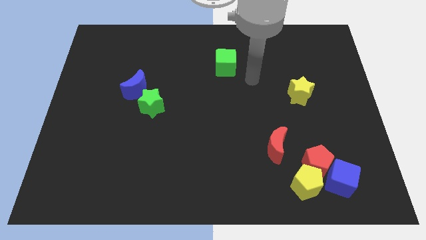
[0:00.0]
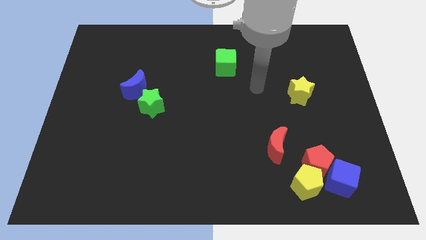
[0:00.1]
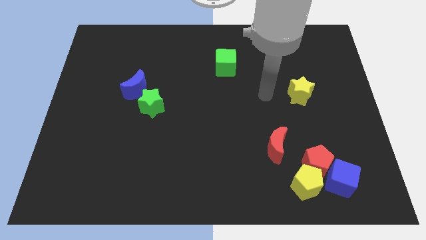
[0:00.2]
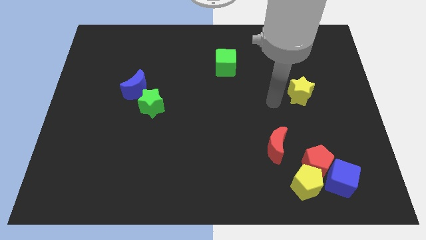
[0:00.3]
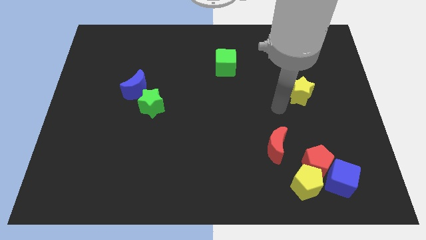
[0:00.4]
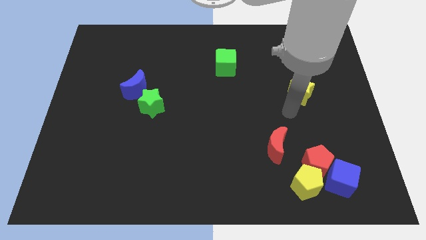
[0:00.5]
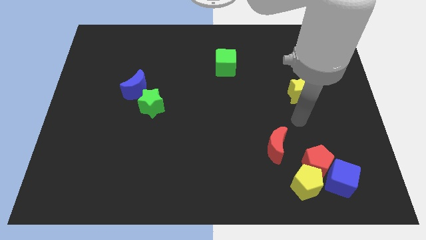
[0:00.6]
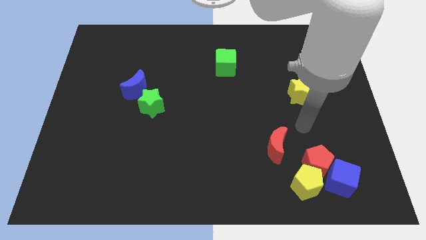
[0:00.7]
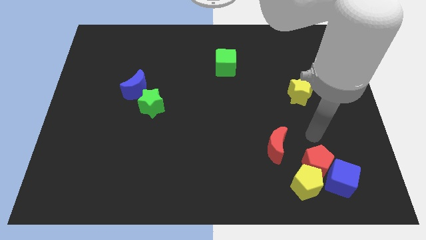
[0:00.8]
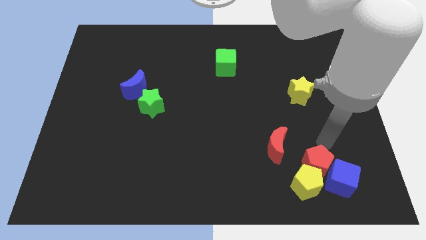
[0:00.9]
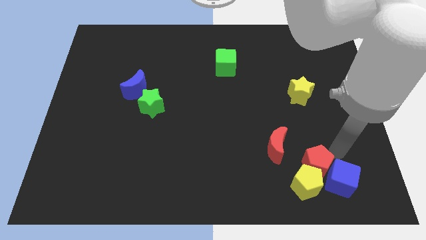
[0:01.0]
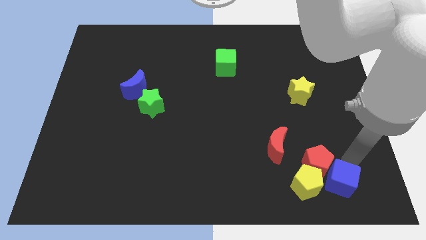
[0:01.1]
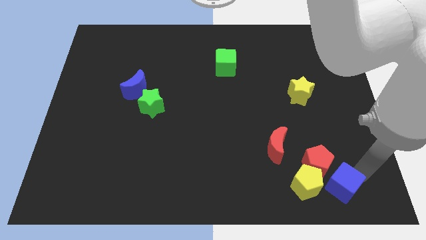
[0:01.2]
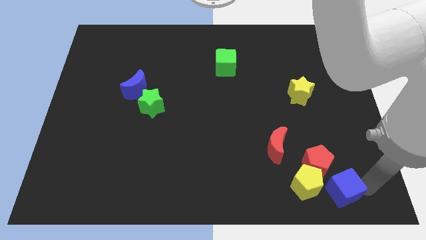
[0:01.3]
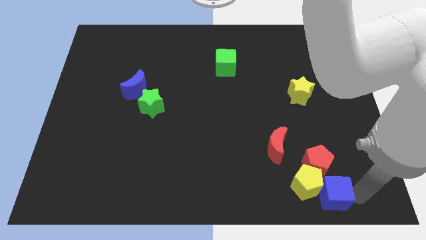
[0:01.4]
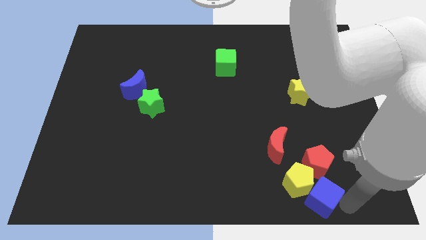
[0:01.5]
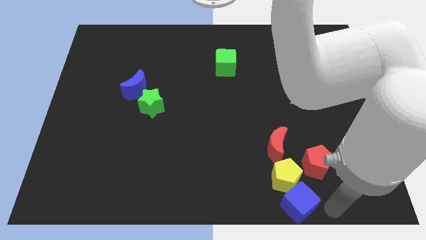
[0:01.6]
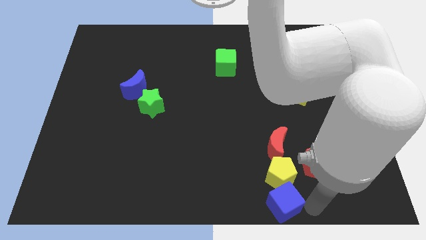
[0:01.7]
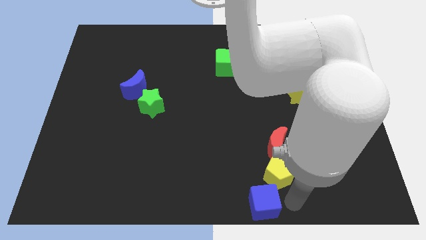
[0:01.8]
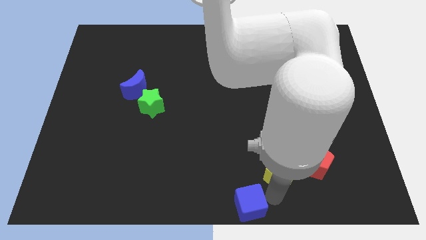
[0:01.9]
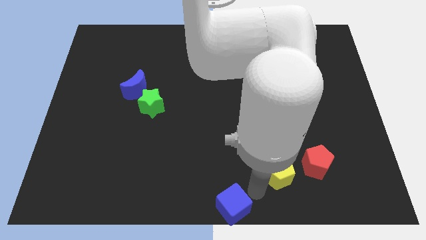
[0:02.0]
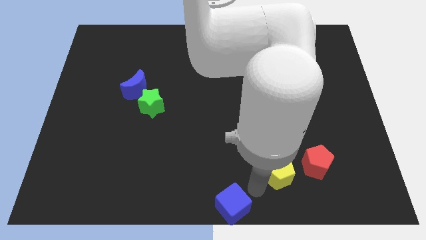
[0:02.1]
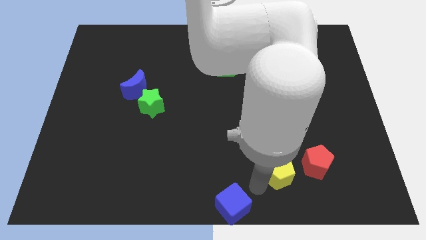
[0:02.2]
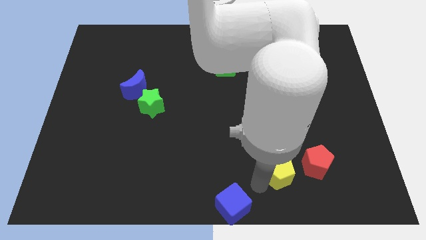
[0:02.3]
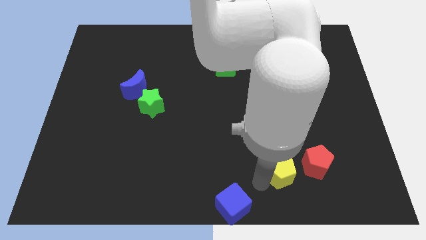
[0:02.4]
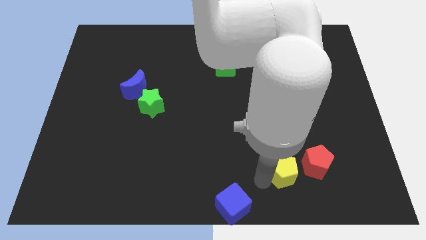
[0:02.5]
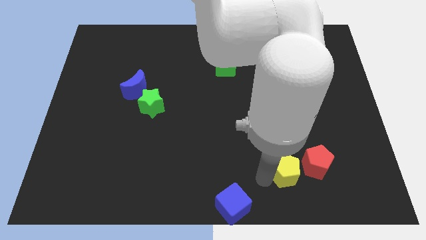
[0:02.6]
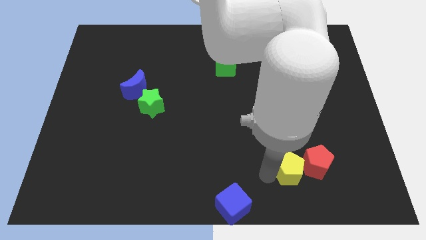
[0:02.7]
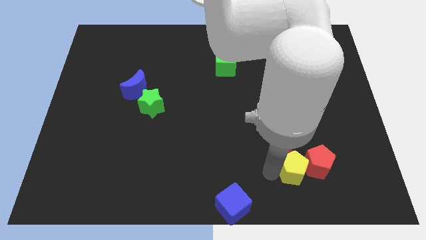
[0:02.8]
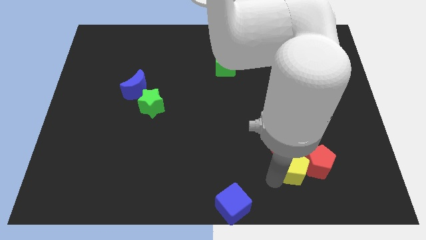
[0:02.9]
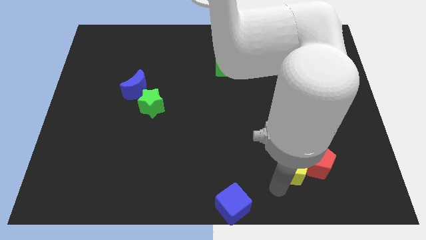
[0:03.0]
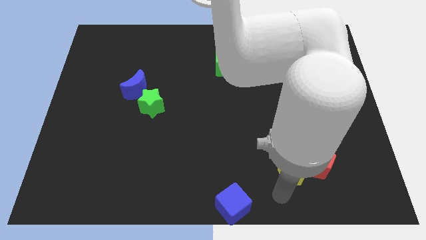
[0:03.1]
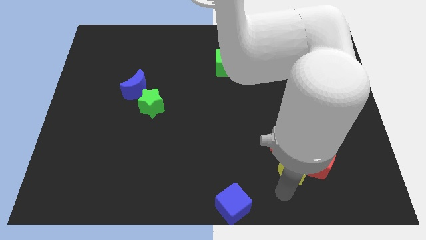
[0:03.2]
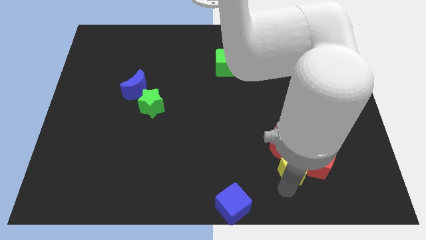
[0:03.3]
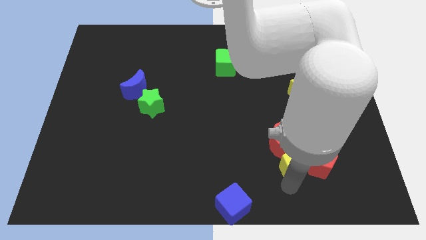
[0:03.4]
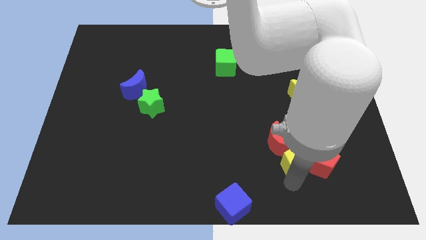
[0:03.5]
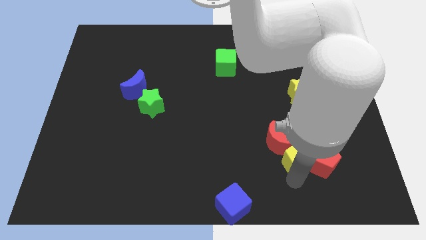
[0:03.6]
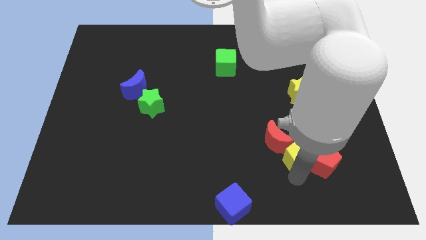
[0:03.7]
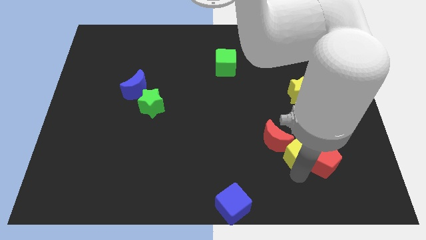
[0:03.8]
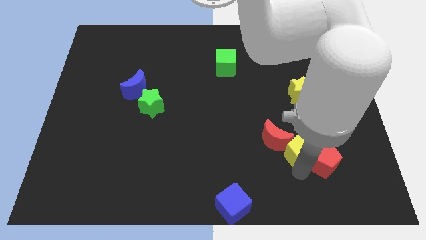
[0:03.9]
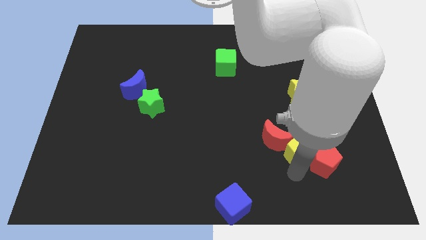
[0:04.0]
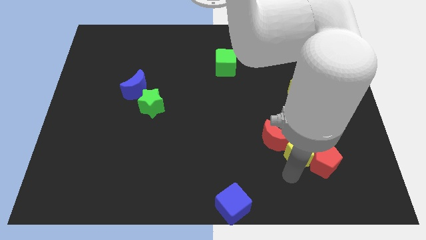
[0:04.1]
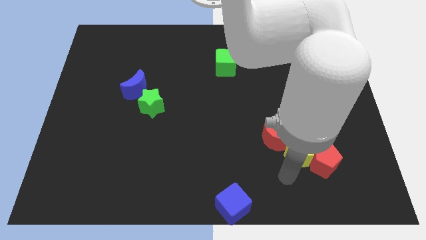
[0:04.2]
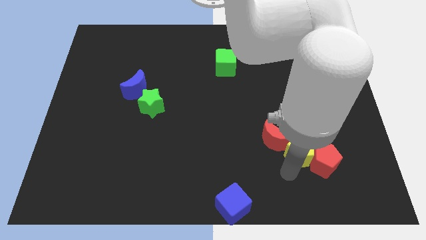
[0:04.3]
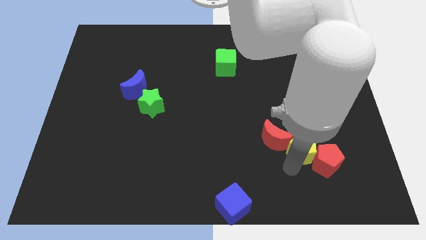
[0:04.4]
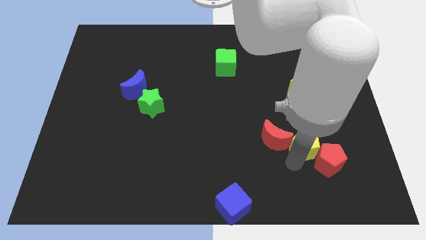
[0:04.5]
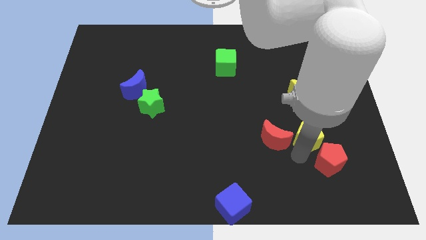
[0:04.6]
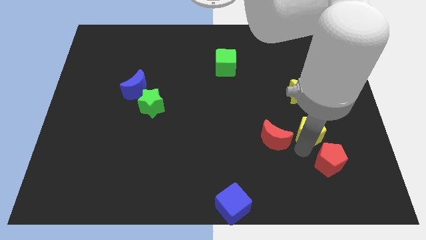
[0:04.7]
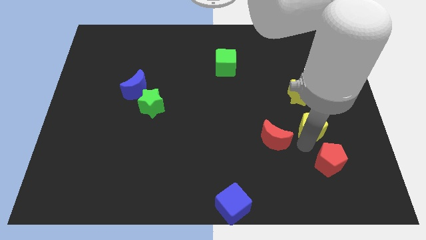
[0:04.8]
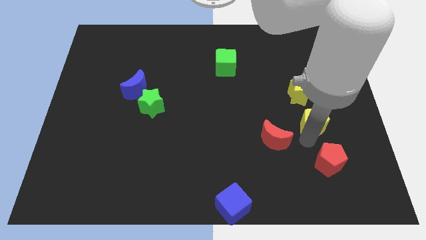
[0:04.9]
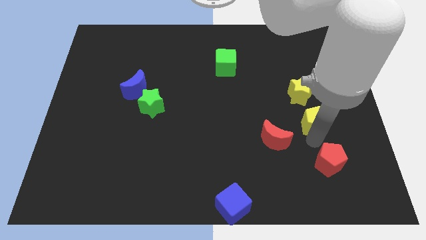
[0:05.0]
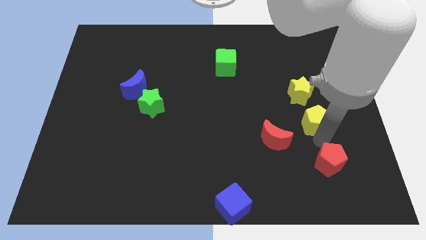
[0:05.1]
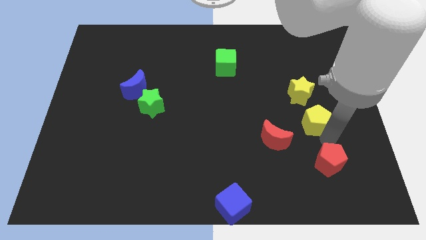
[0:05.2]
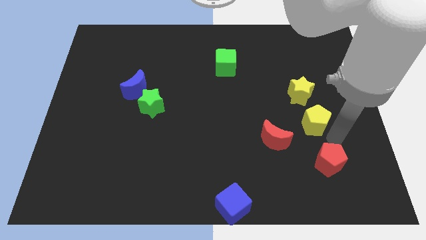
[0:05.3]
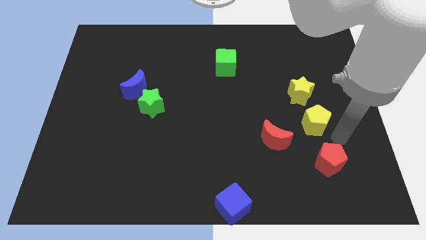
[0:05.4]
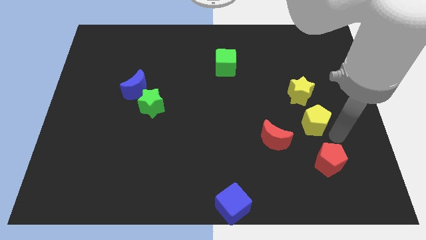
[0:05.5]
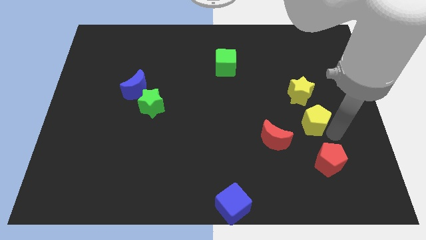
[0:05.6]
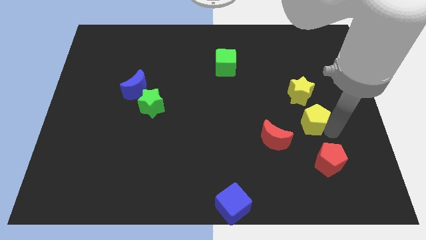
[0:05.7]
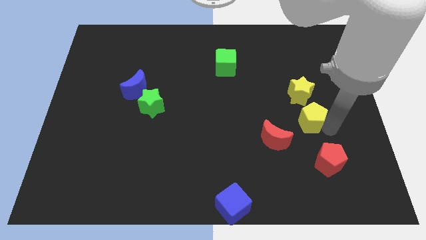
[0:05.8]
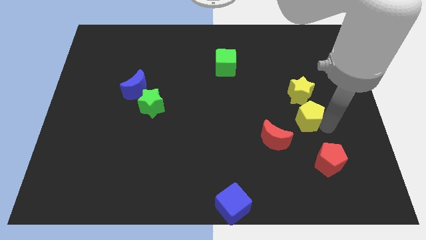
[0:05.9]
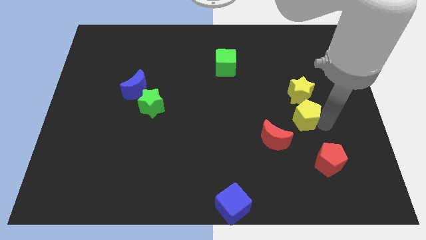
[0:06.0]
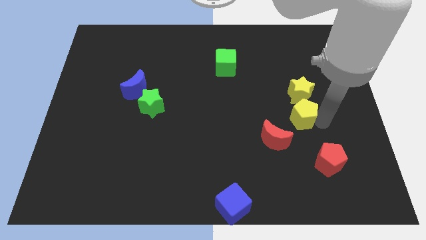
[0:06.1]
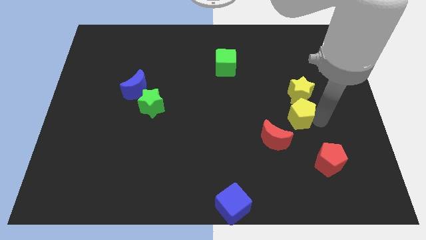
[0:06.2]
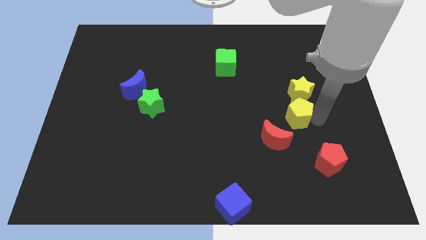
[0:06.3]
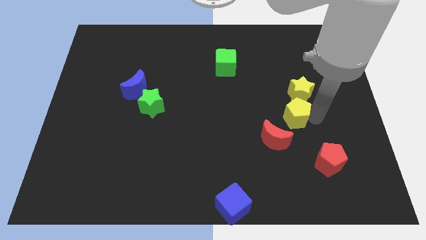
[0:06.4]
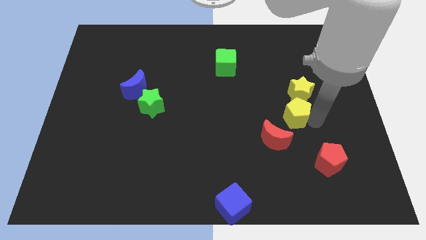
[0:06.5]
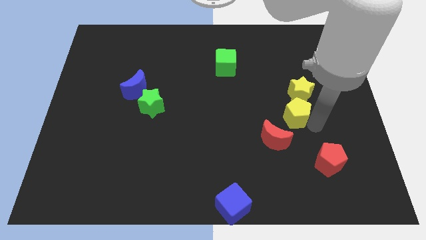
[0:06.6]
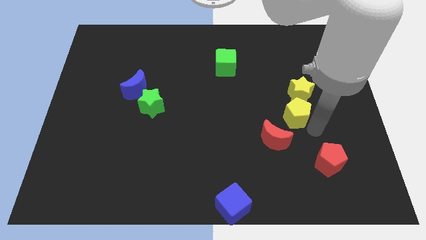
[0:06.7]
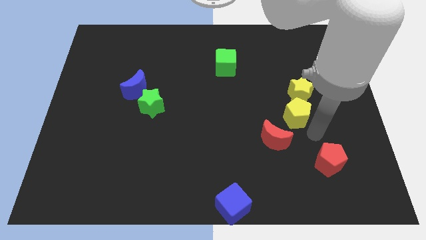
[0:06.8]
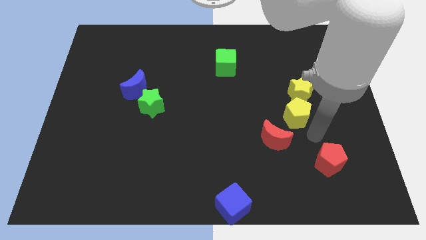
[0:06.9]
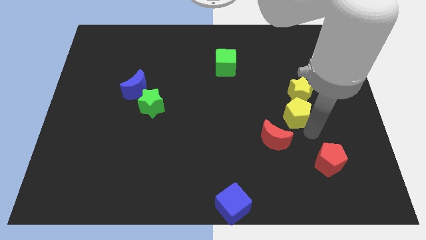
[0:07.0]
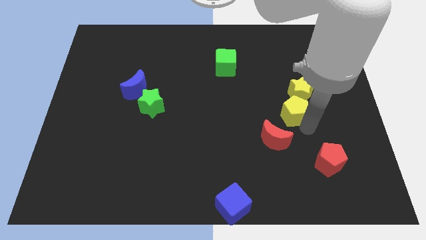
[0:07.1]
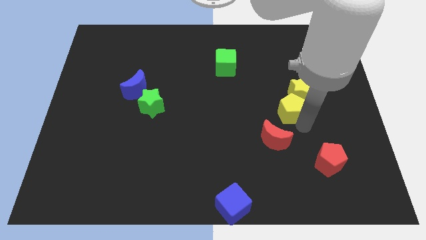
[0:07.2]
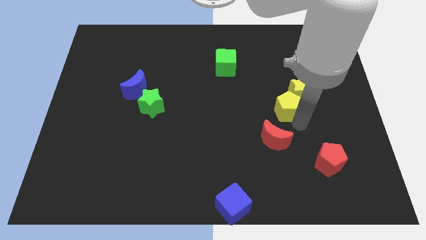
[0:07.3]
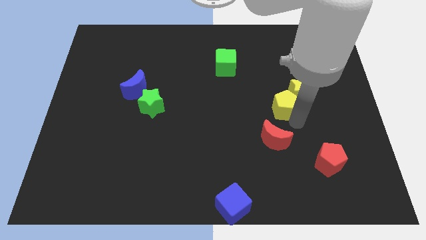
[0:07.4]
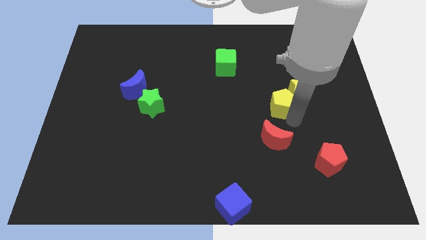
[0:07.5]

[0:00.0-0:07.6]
push the yellow pentagon upwards
